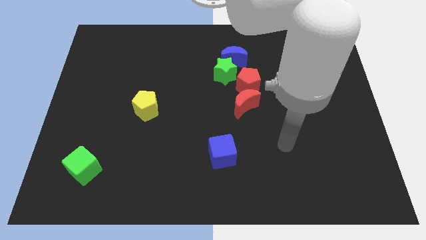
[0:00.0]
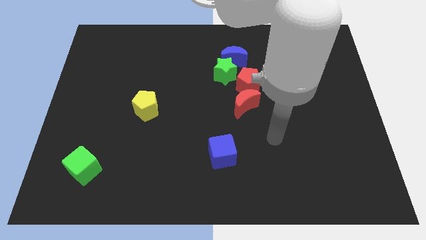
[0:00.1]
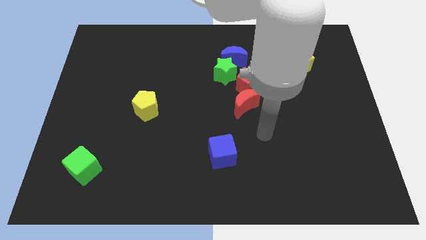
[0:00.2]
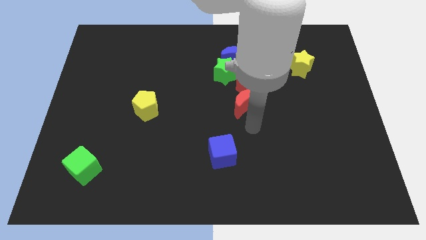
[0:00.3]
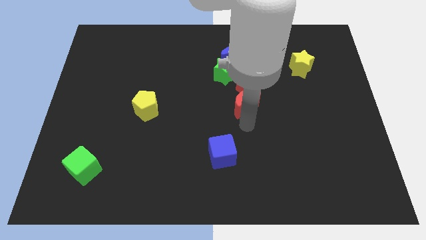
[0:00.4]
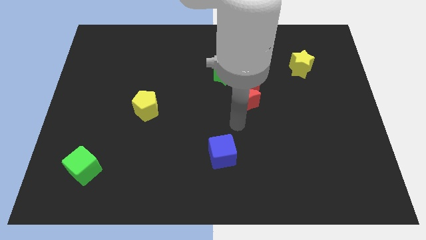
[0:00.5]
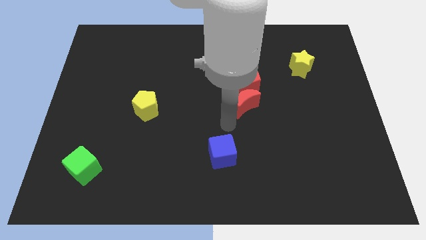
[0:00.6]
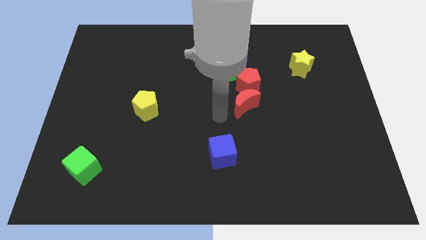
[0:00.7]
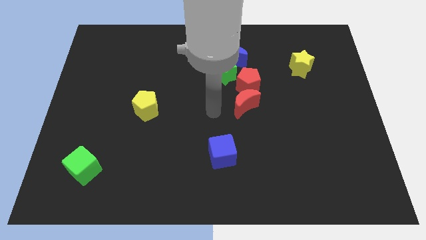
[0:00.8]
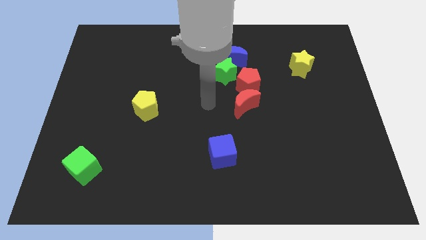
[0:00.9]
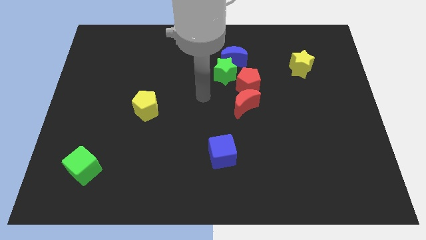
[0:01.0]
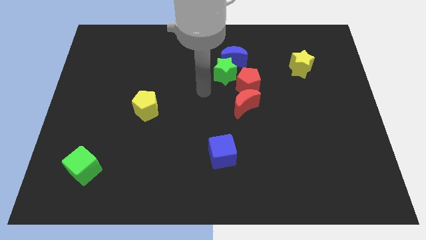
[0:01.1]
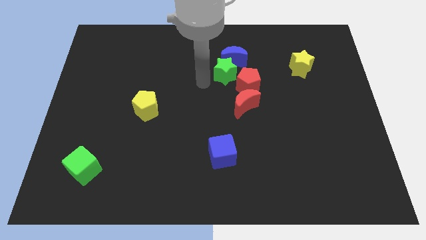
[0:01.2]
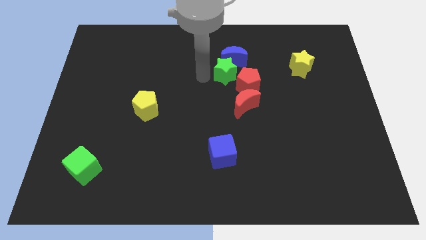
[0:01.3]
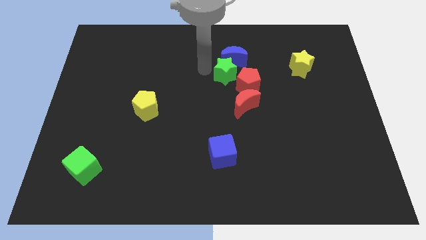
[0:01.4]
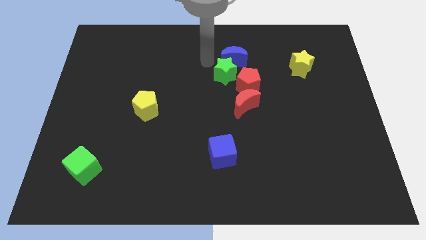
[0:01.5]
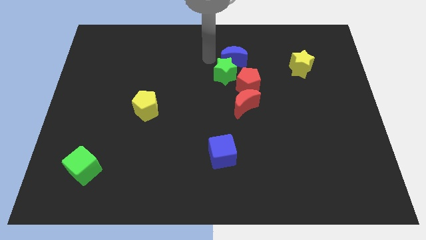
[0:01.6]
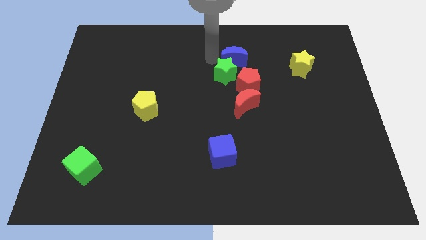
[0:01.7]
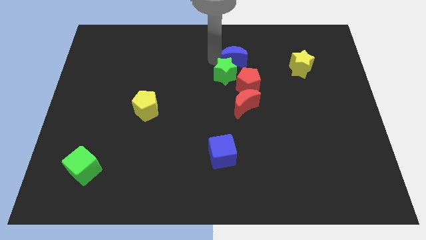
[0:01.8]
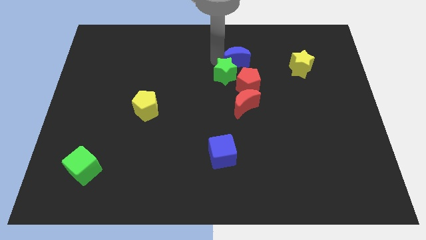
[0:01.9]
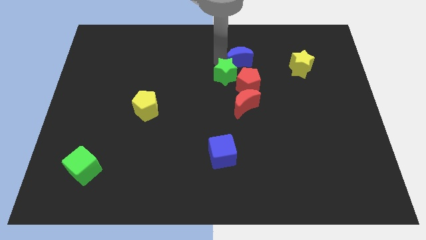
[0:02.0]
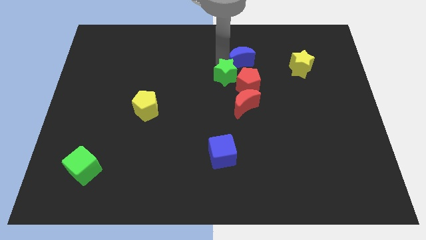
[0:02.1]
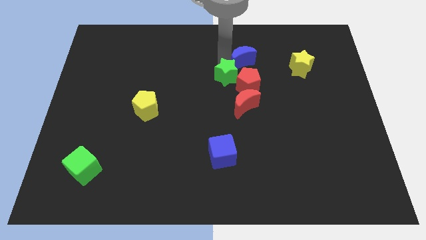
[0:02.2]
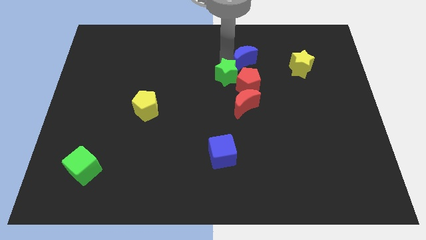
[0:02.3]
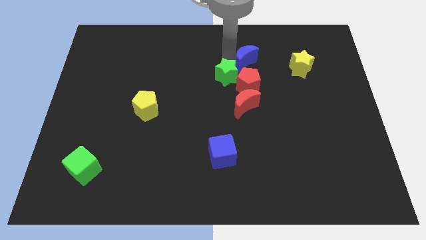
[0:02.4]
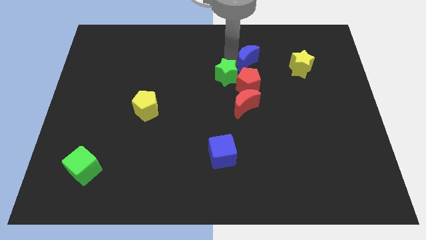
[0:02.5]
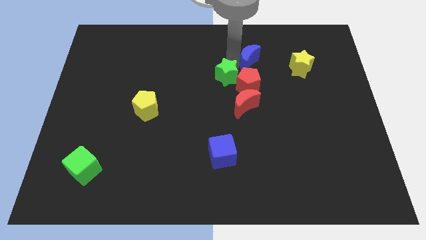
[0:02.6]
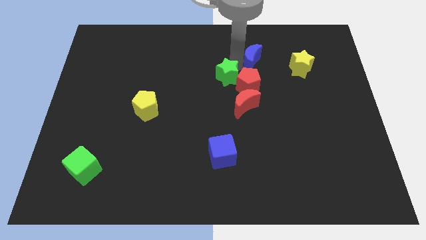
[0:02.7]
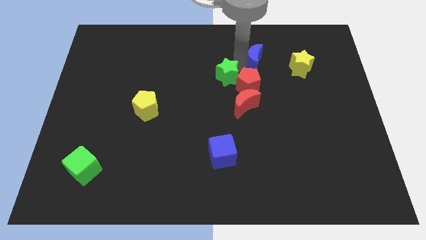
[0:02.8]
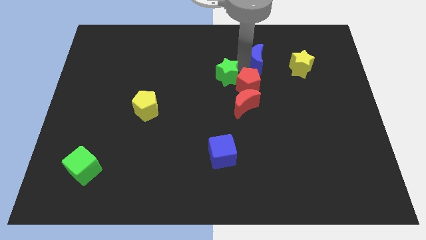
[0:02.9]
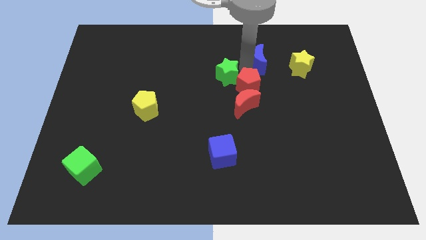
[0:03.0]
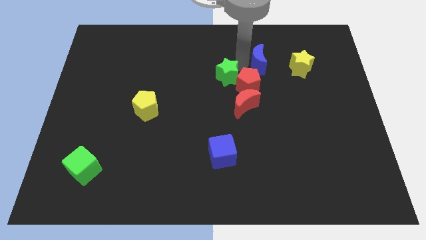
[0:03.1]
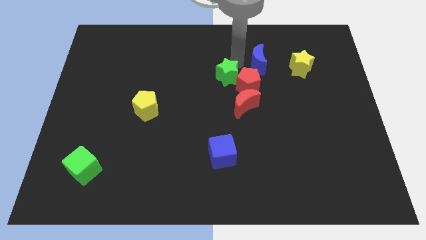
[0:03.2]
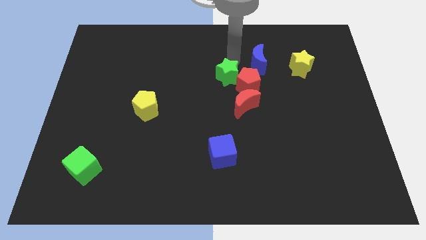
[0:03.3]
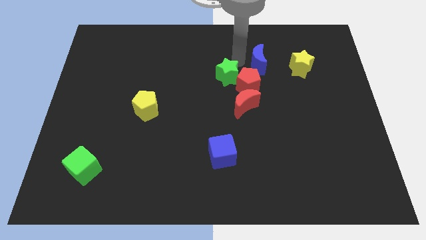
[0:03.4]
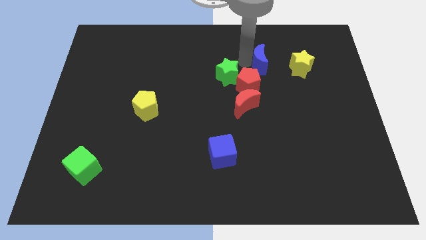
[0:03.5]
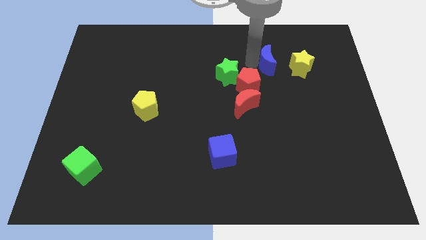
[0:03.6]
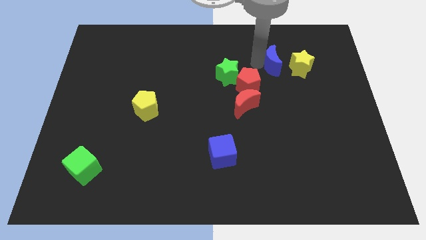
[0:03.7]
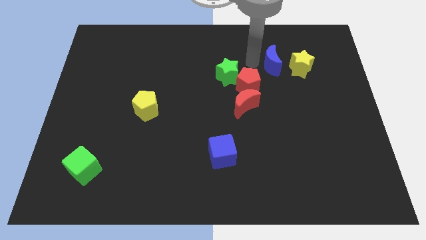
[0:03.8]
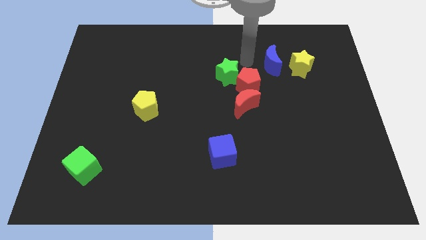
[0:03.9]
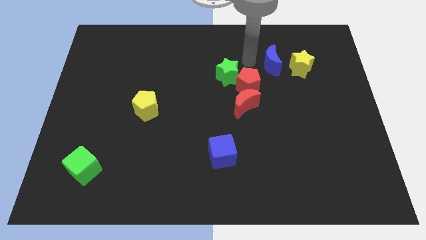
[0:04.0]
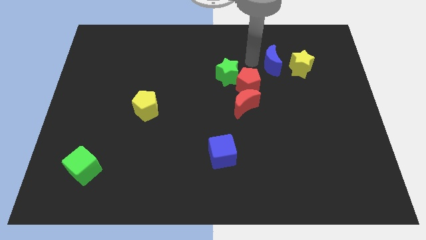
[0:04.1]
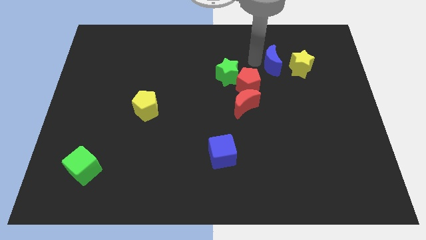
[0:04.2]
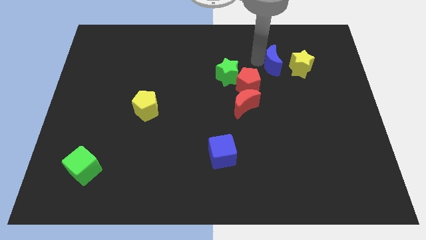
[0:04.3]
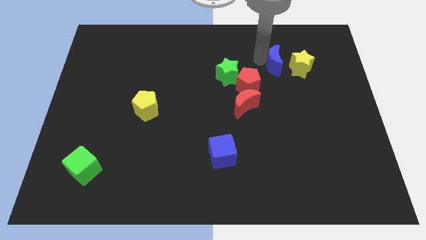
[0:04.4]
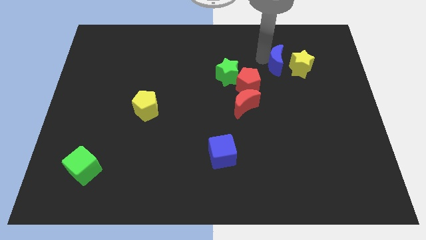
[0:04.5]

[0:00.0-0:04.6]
move the blue moon close to the yellow star

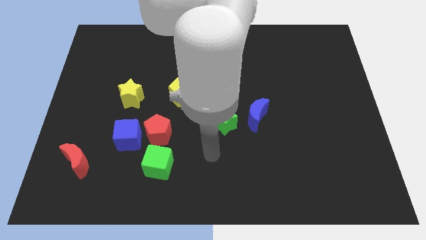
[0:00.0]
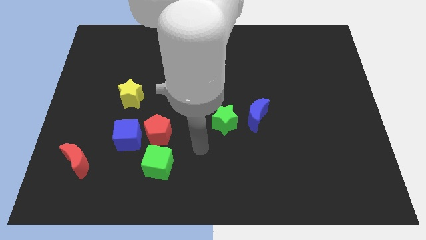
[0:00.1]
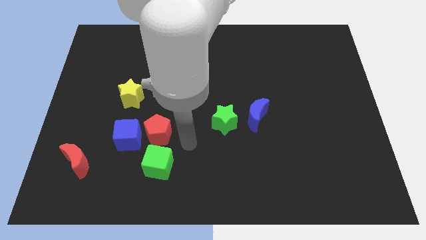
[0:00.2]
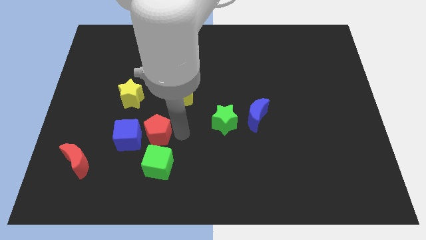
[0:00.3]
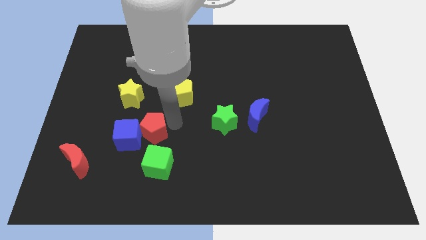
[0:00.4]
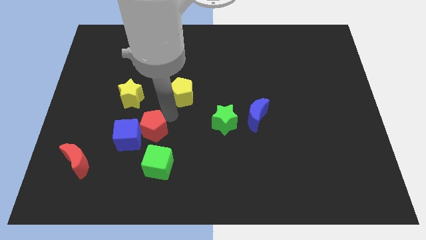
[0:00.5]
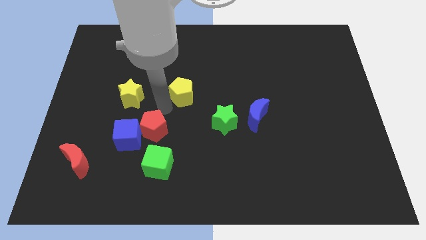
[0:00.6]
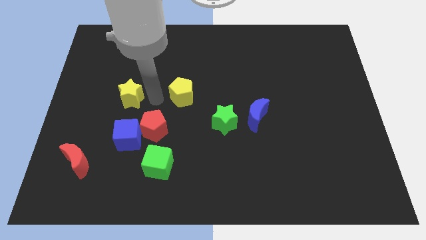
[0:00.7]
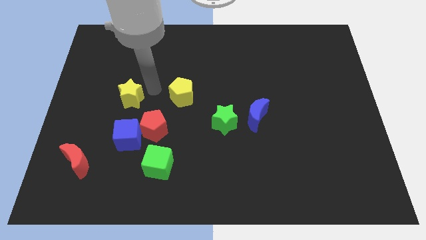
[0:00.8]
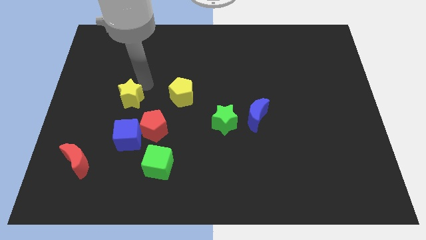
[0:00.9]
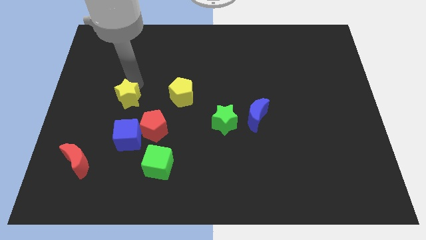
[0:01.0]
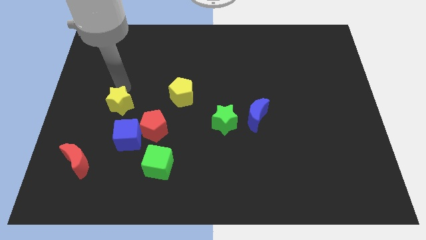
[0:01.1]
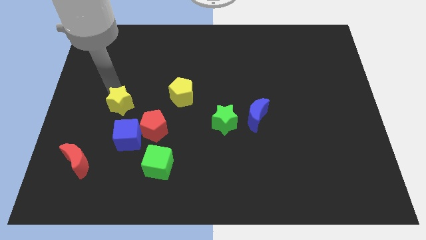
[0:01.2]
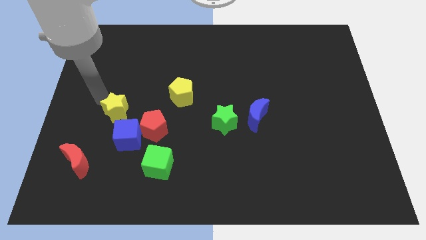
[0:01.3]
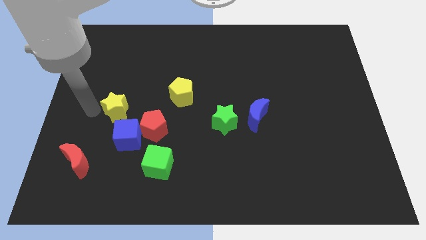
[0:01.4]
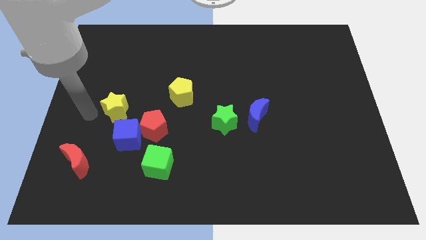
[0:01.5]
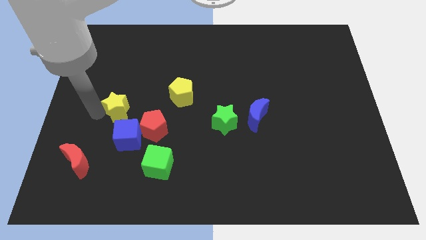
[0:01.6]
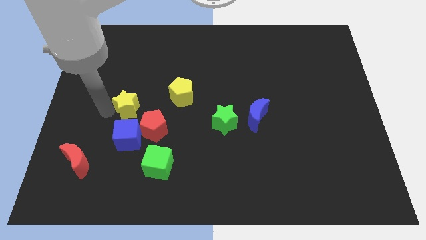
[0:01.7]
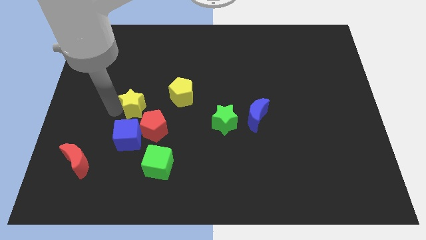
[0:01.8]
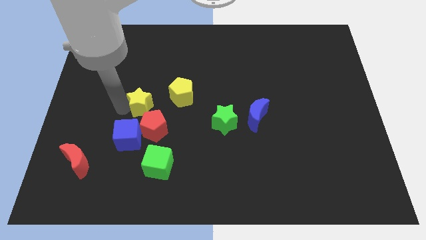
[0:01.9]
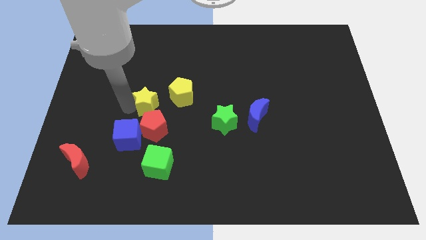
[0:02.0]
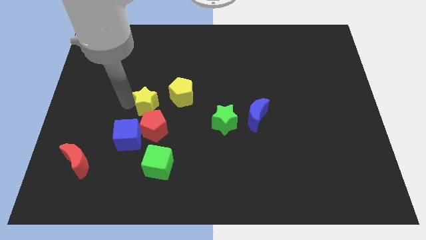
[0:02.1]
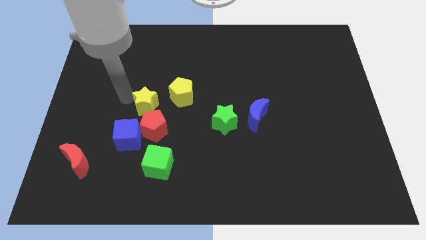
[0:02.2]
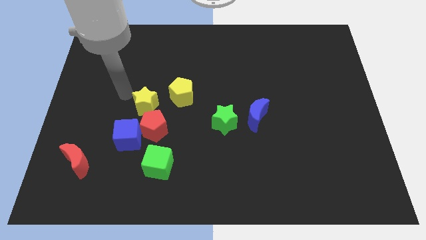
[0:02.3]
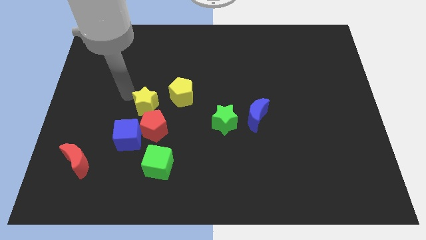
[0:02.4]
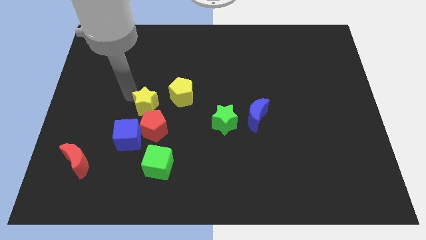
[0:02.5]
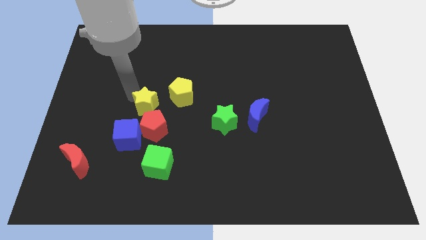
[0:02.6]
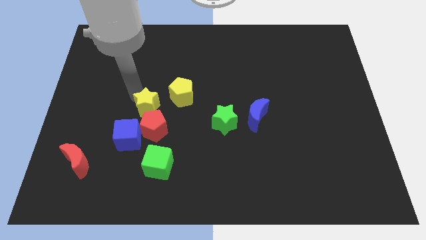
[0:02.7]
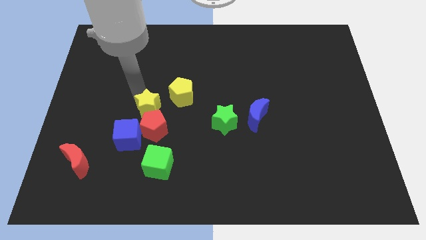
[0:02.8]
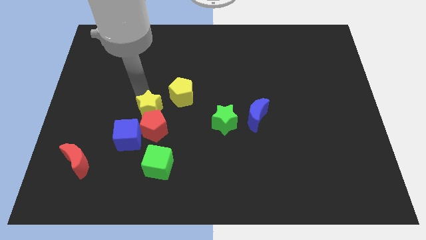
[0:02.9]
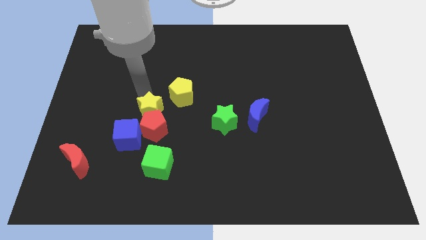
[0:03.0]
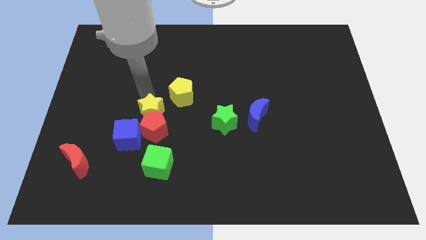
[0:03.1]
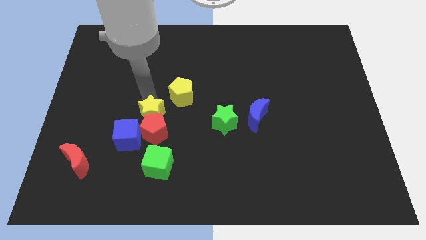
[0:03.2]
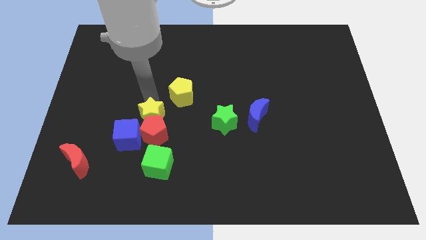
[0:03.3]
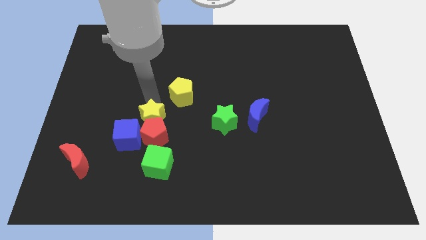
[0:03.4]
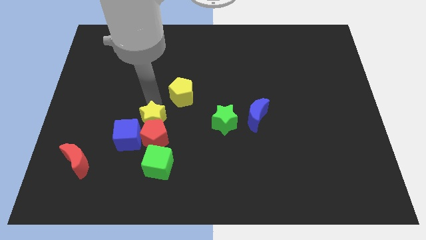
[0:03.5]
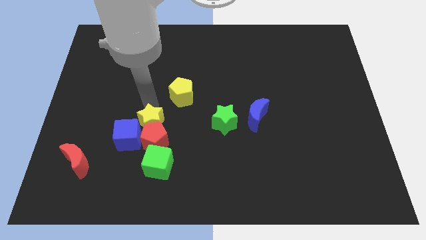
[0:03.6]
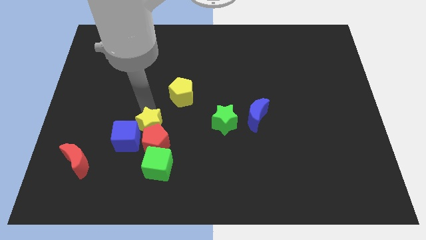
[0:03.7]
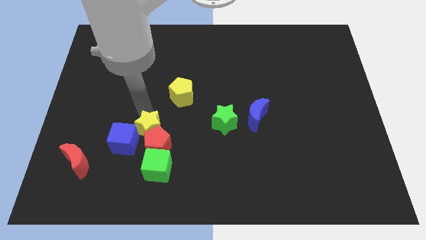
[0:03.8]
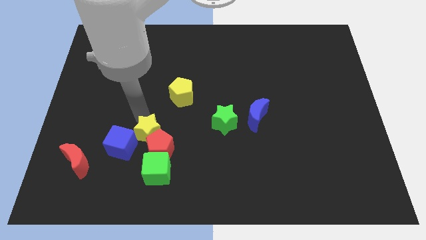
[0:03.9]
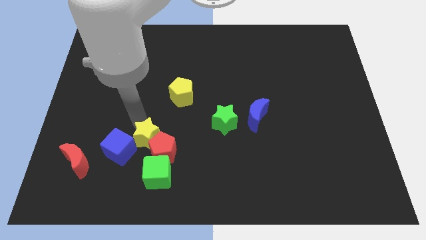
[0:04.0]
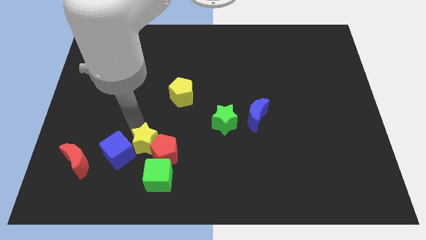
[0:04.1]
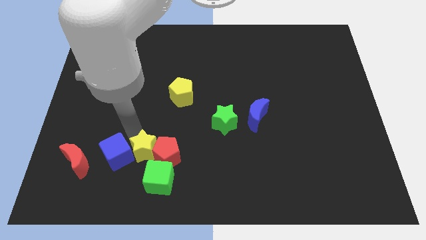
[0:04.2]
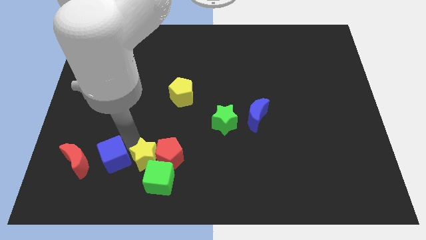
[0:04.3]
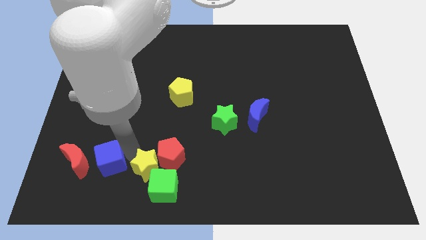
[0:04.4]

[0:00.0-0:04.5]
put the yellow star to the green cube
